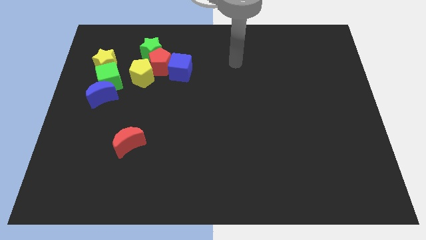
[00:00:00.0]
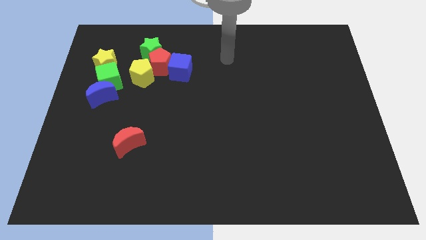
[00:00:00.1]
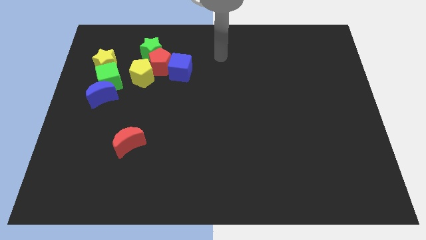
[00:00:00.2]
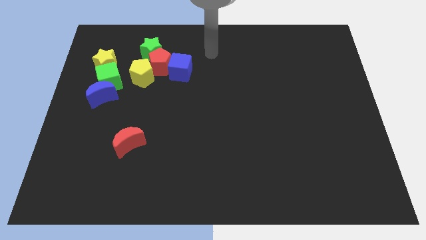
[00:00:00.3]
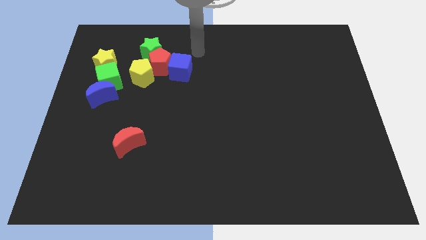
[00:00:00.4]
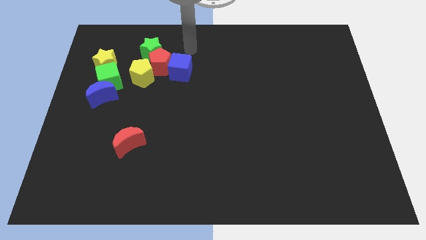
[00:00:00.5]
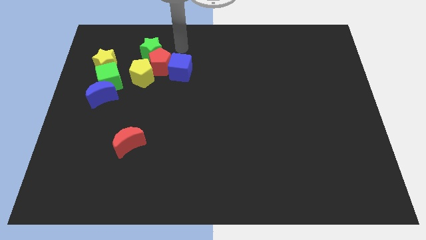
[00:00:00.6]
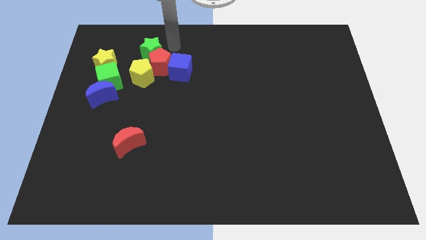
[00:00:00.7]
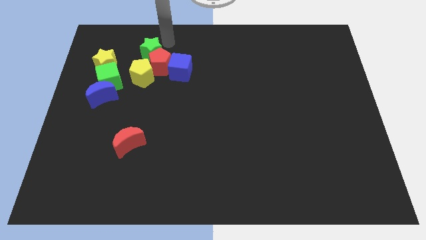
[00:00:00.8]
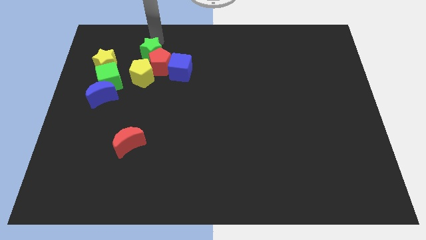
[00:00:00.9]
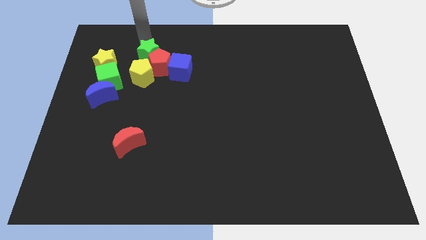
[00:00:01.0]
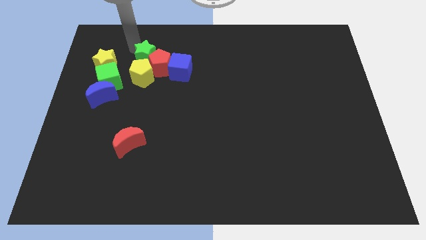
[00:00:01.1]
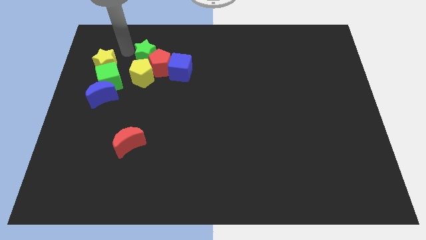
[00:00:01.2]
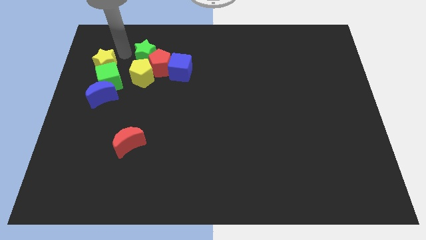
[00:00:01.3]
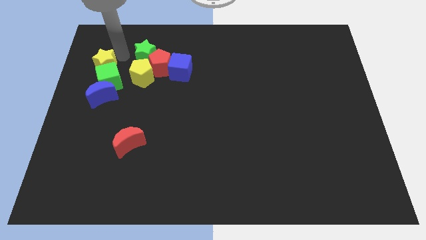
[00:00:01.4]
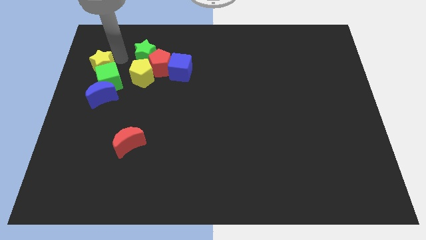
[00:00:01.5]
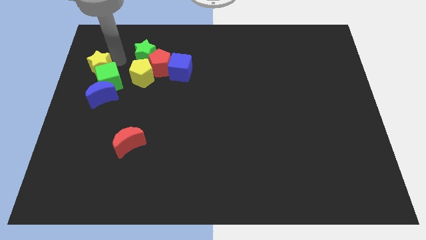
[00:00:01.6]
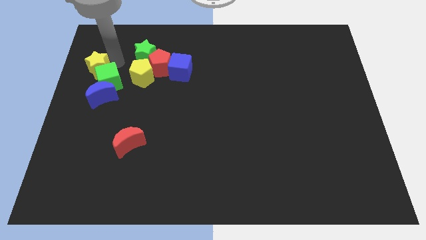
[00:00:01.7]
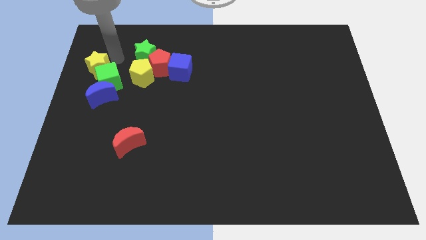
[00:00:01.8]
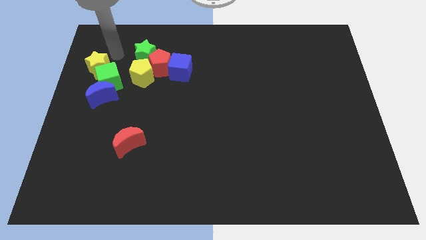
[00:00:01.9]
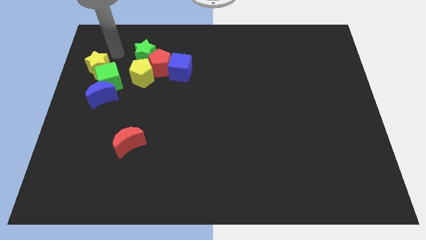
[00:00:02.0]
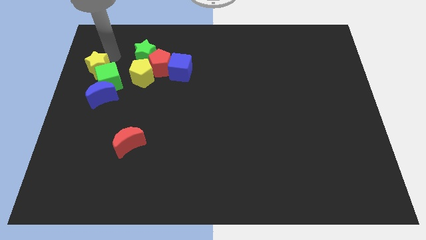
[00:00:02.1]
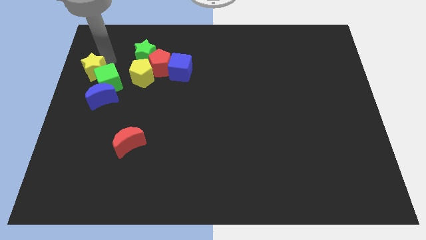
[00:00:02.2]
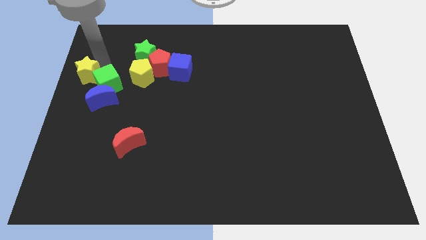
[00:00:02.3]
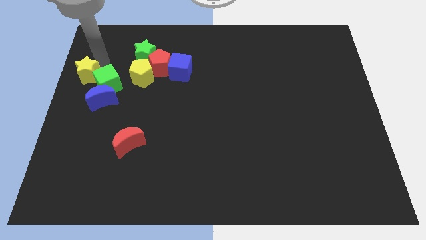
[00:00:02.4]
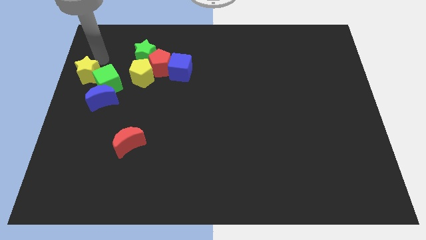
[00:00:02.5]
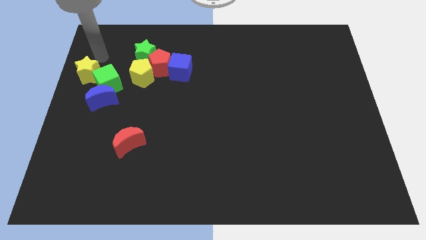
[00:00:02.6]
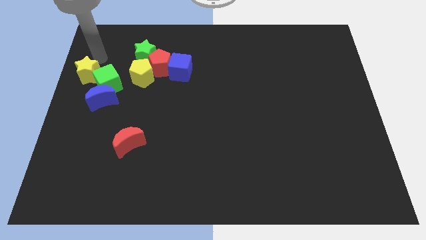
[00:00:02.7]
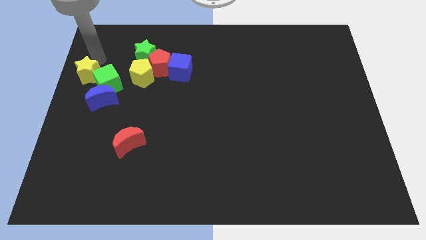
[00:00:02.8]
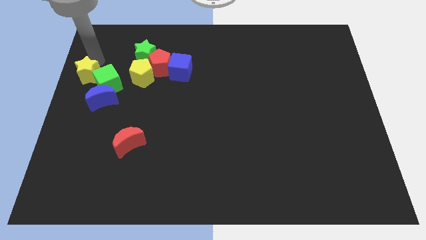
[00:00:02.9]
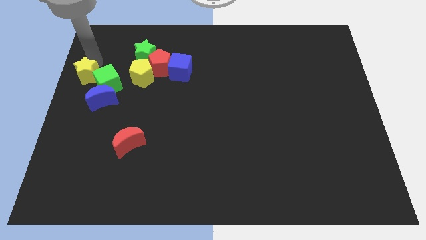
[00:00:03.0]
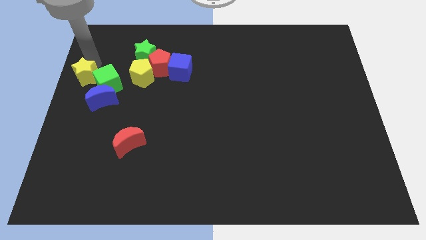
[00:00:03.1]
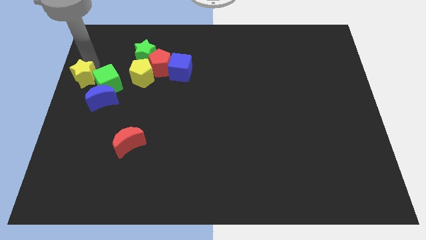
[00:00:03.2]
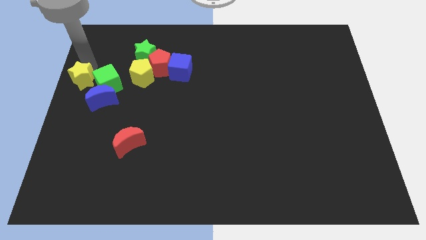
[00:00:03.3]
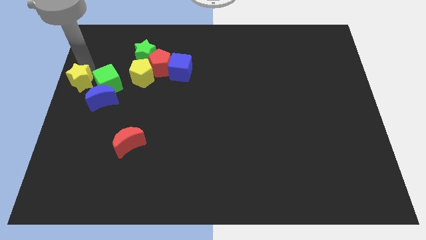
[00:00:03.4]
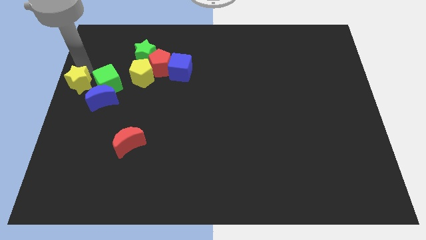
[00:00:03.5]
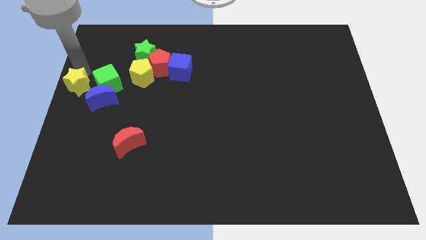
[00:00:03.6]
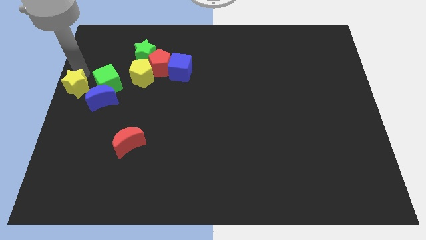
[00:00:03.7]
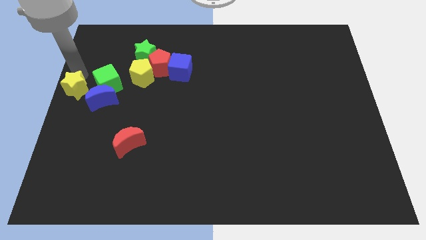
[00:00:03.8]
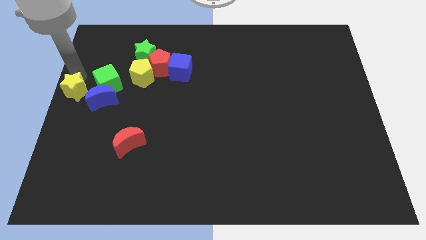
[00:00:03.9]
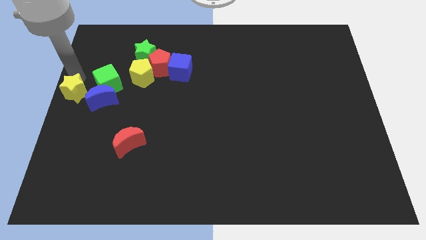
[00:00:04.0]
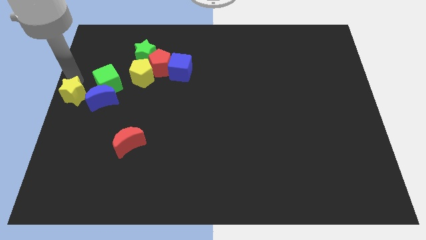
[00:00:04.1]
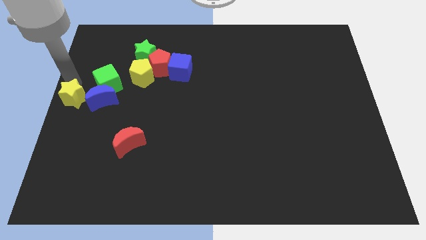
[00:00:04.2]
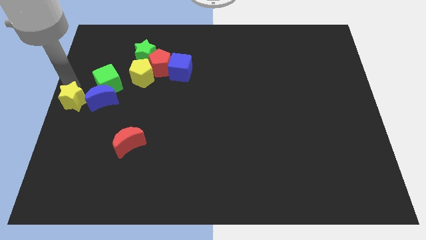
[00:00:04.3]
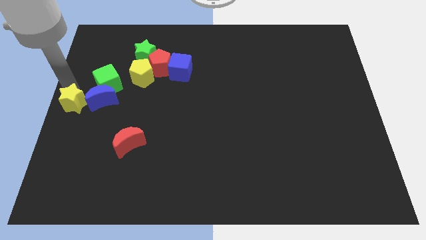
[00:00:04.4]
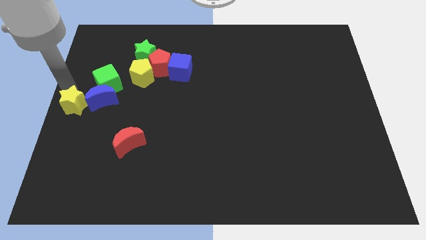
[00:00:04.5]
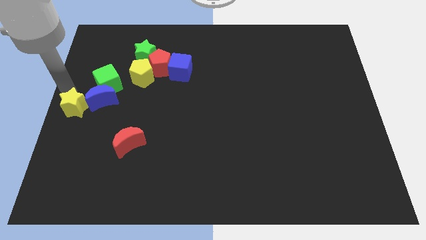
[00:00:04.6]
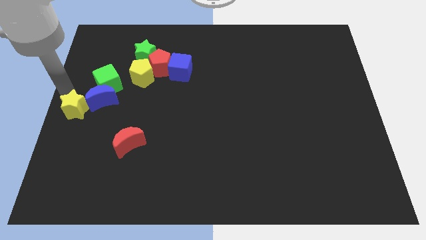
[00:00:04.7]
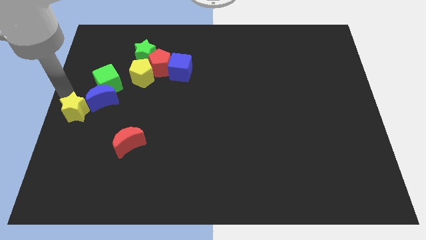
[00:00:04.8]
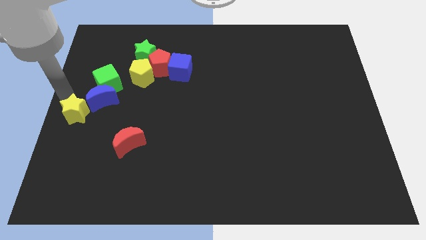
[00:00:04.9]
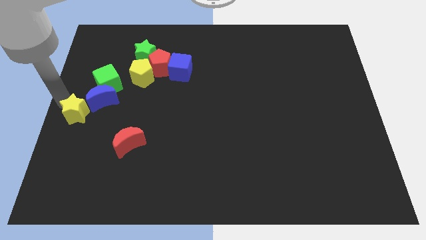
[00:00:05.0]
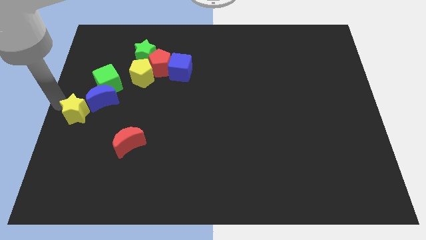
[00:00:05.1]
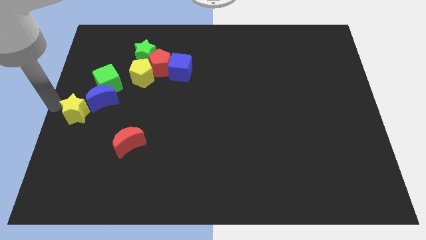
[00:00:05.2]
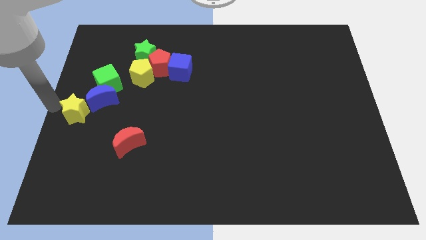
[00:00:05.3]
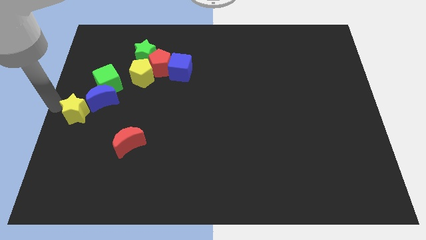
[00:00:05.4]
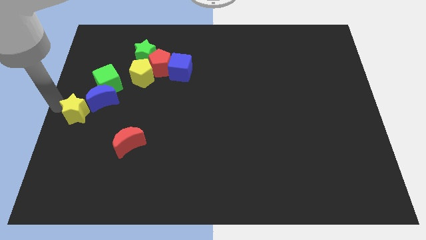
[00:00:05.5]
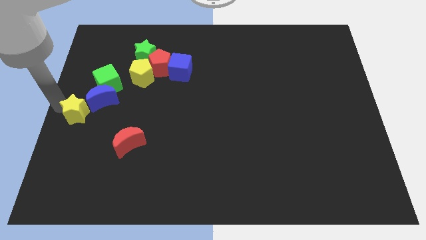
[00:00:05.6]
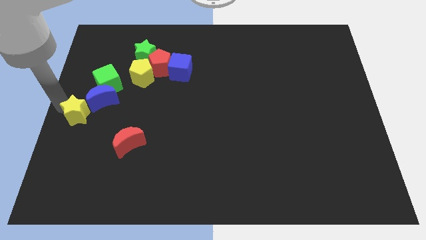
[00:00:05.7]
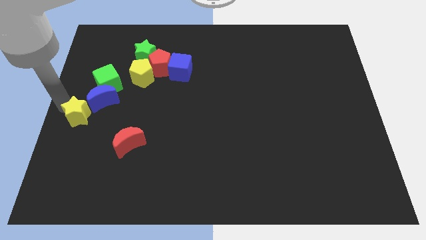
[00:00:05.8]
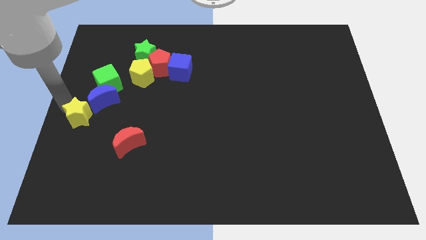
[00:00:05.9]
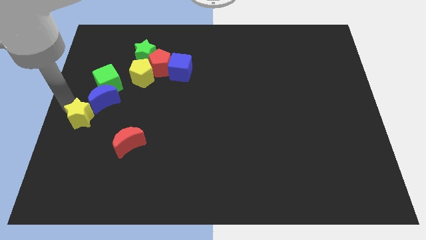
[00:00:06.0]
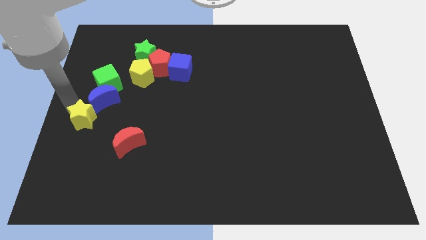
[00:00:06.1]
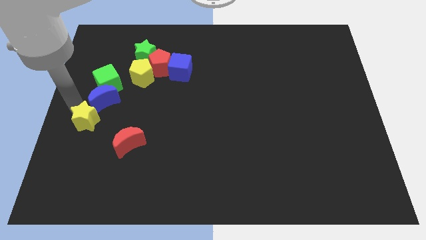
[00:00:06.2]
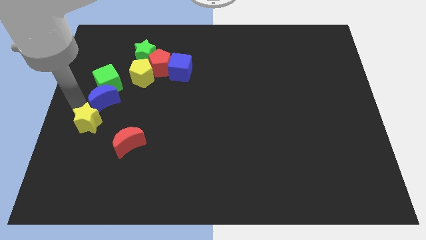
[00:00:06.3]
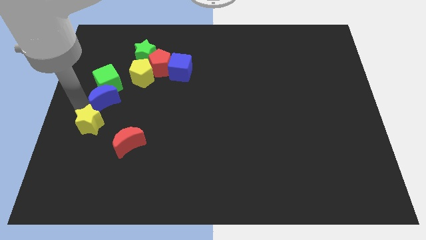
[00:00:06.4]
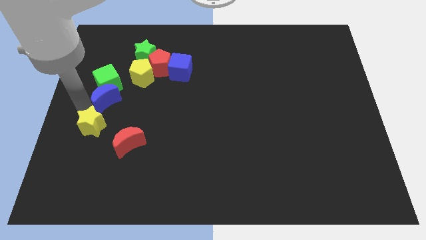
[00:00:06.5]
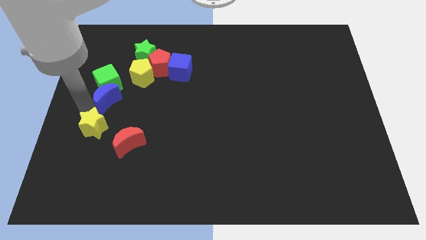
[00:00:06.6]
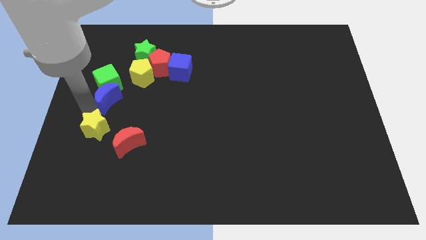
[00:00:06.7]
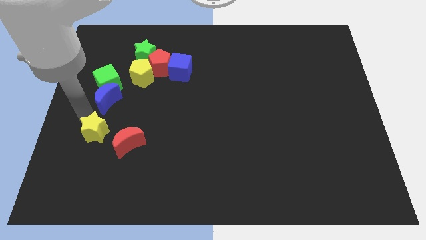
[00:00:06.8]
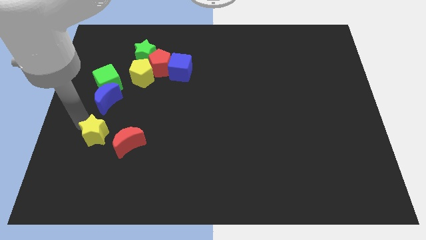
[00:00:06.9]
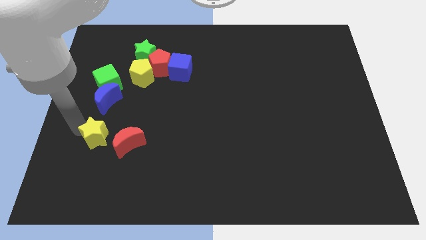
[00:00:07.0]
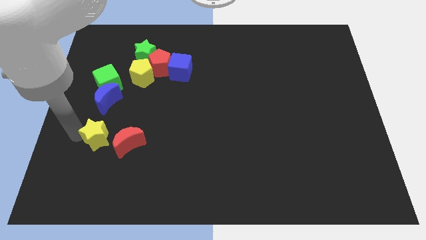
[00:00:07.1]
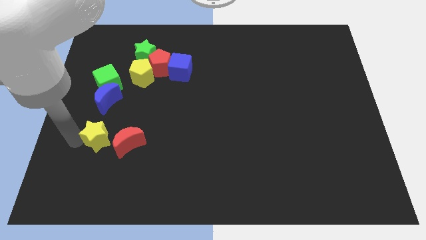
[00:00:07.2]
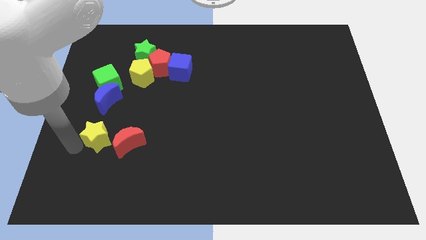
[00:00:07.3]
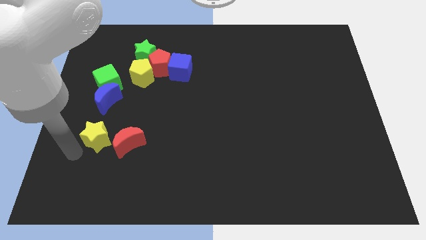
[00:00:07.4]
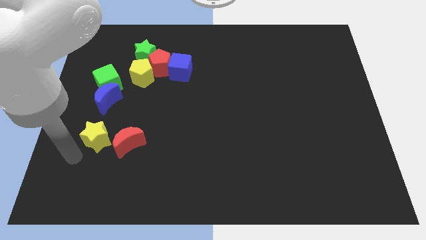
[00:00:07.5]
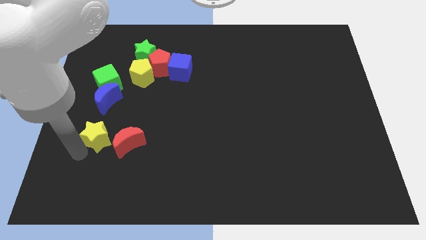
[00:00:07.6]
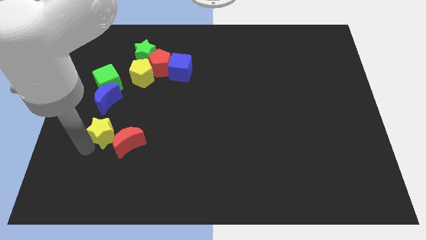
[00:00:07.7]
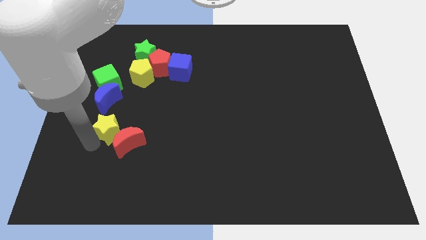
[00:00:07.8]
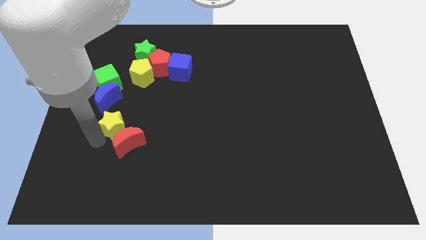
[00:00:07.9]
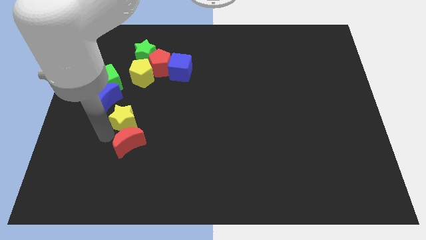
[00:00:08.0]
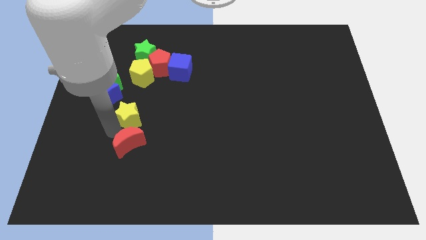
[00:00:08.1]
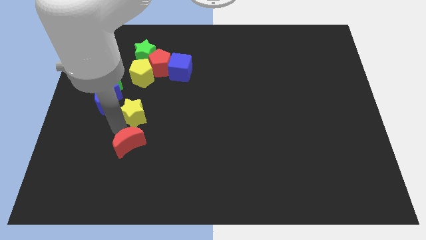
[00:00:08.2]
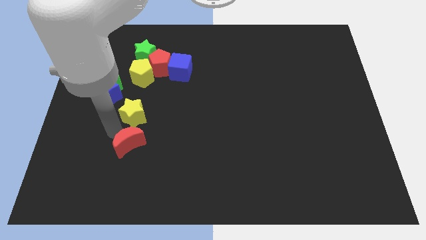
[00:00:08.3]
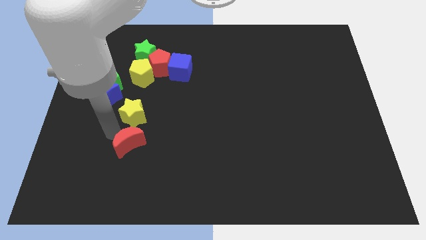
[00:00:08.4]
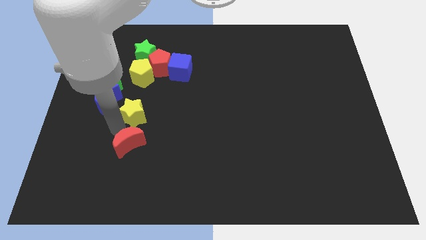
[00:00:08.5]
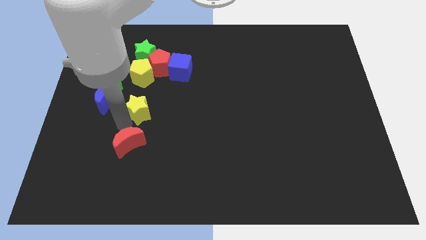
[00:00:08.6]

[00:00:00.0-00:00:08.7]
move the yellow star to the bottom side of the red pentagon
